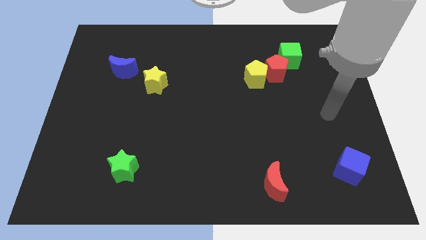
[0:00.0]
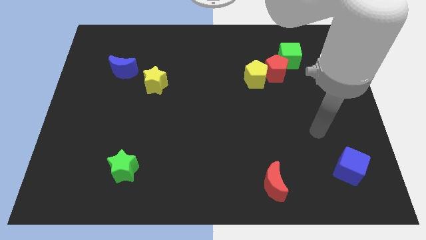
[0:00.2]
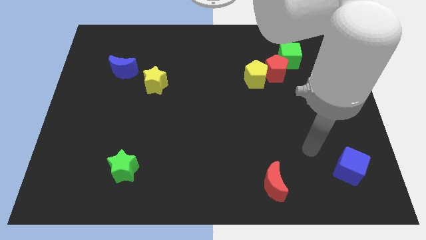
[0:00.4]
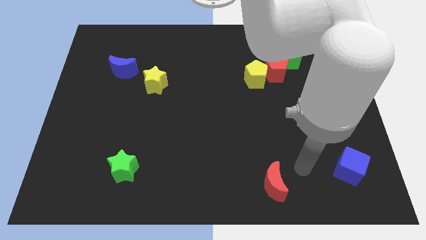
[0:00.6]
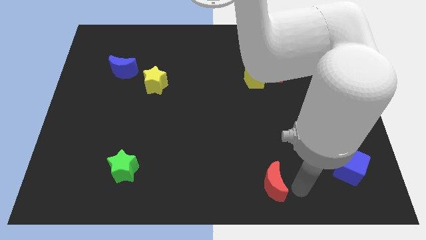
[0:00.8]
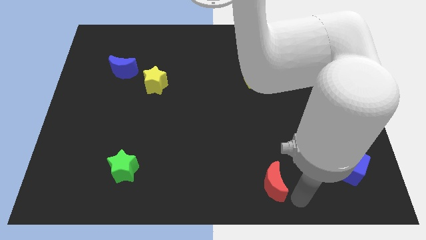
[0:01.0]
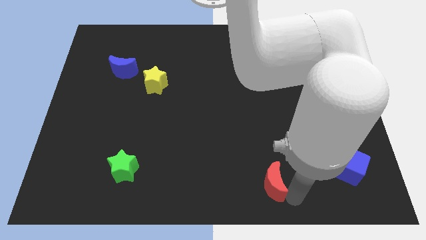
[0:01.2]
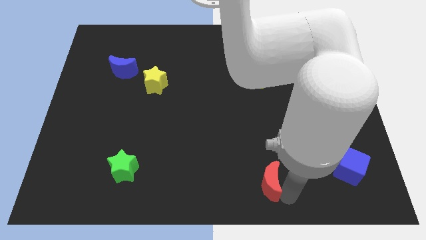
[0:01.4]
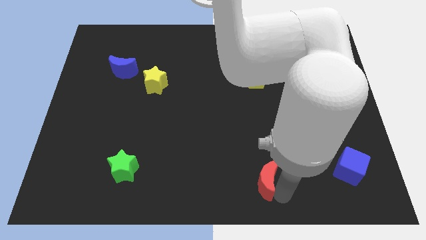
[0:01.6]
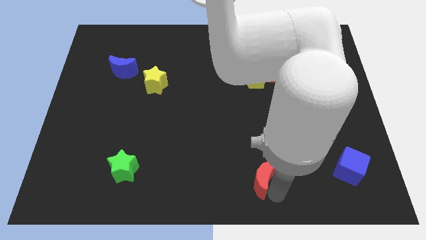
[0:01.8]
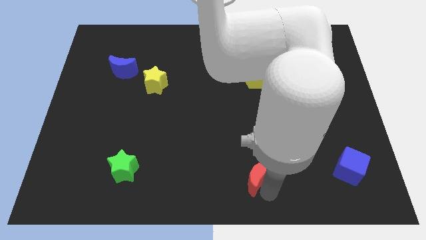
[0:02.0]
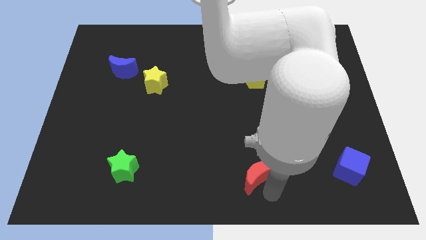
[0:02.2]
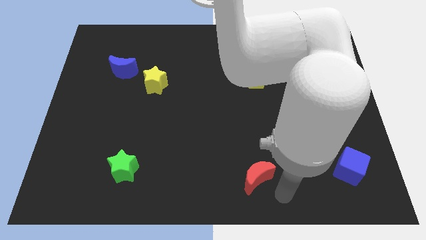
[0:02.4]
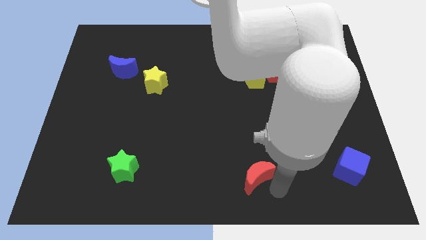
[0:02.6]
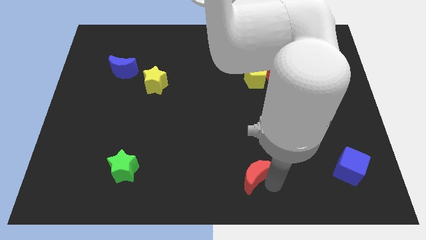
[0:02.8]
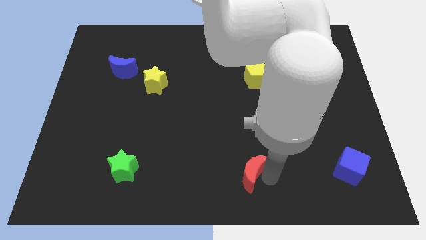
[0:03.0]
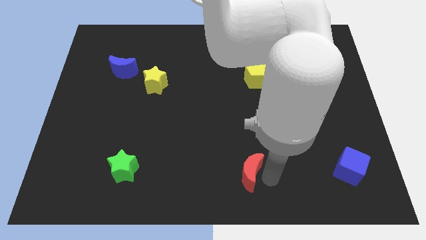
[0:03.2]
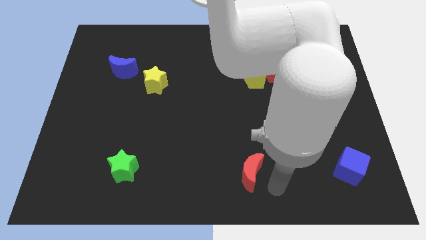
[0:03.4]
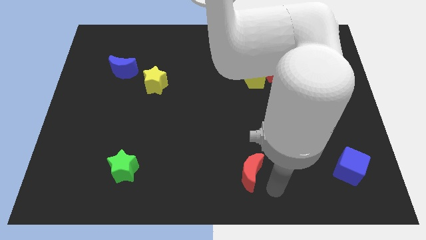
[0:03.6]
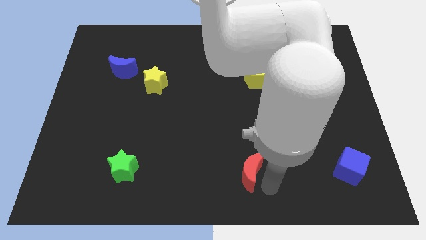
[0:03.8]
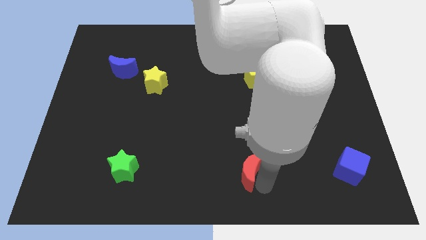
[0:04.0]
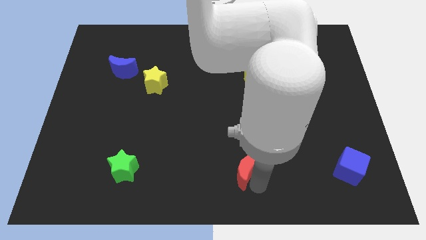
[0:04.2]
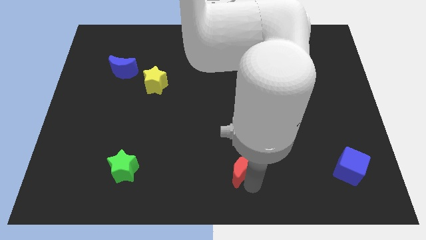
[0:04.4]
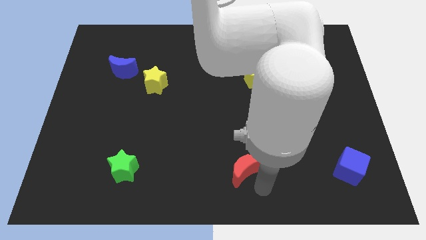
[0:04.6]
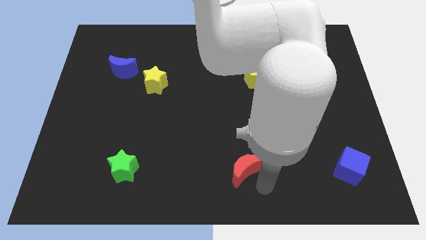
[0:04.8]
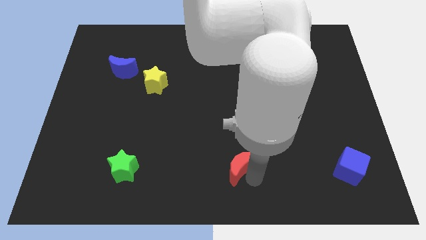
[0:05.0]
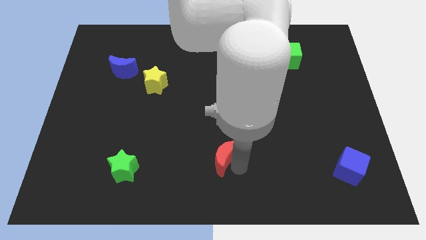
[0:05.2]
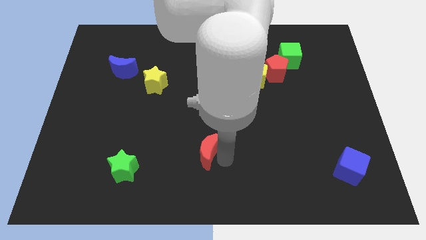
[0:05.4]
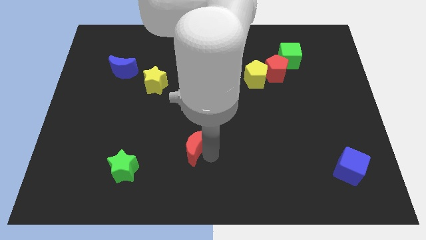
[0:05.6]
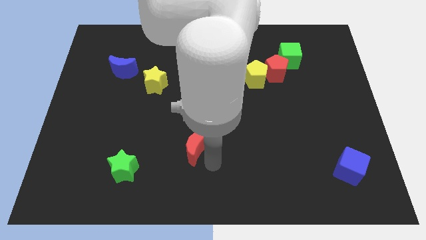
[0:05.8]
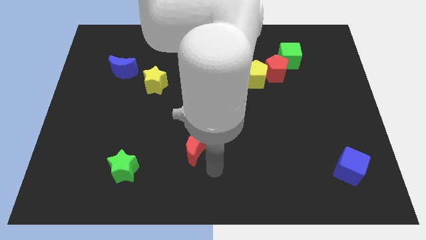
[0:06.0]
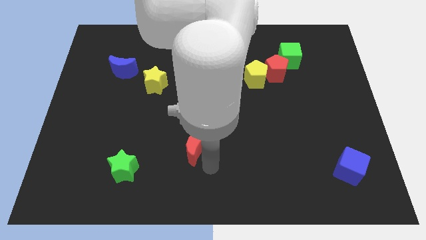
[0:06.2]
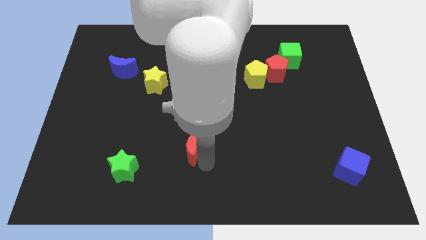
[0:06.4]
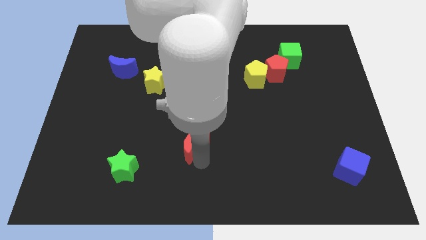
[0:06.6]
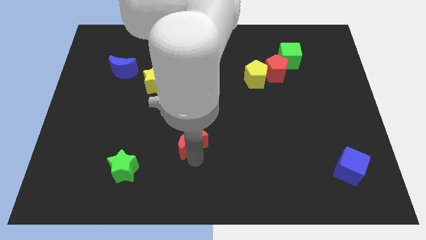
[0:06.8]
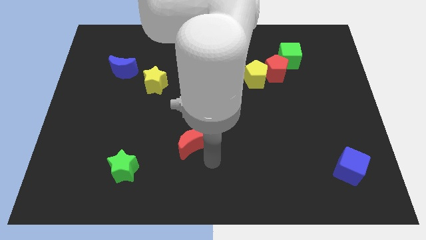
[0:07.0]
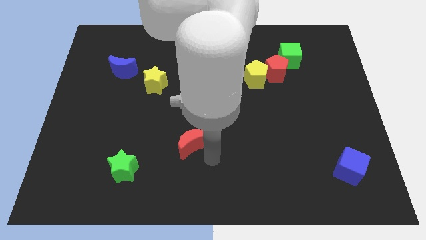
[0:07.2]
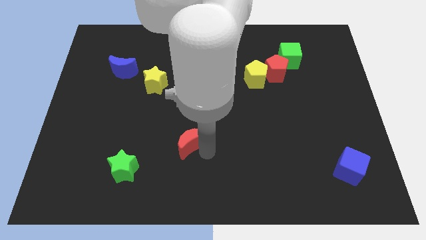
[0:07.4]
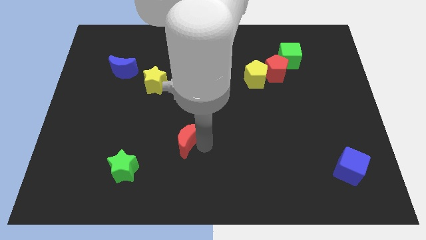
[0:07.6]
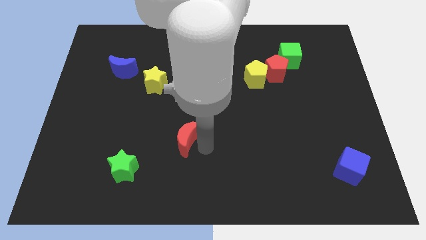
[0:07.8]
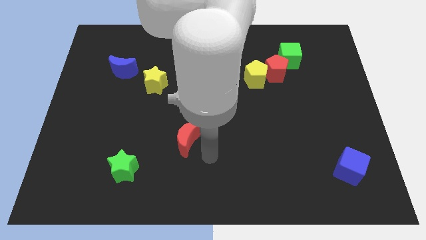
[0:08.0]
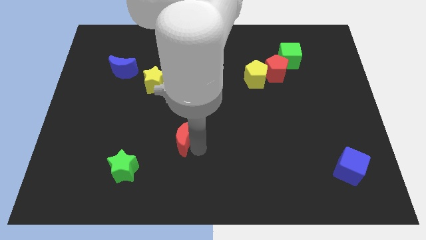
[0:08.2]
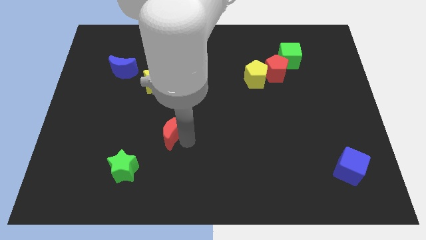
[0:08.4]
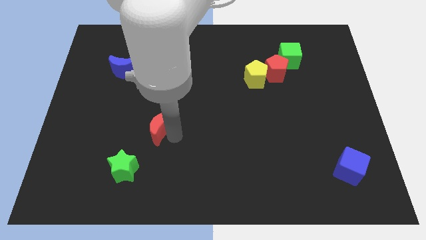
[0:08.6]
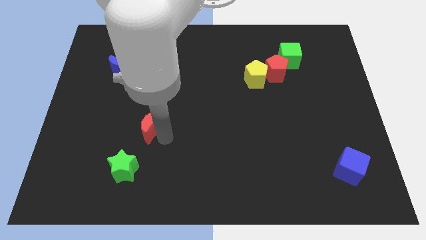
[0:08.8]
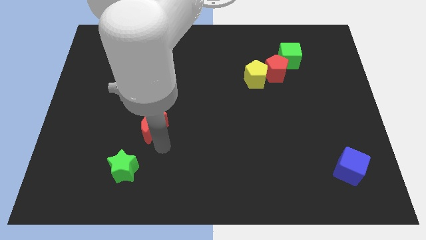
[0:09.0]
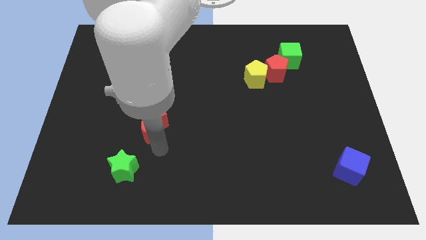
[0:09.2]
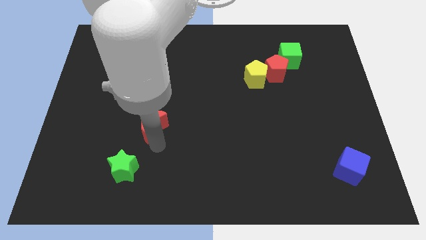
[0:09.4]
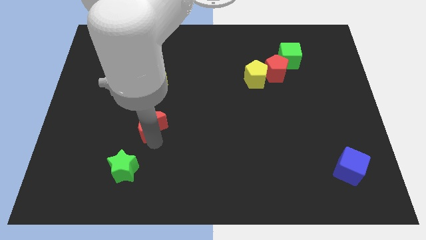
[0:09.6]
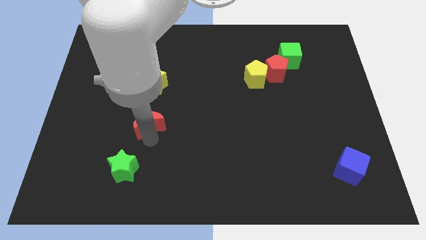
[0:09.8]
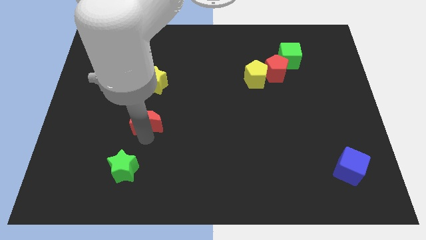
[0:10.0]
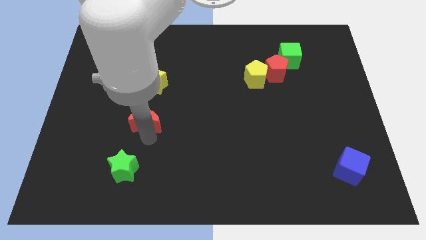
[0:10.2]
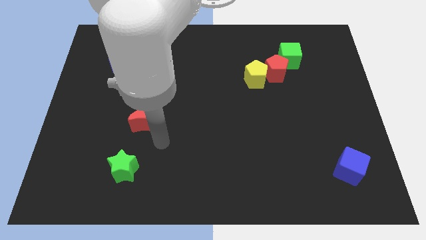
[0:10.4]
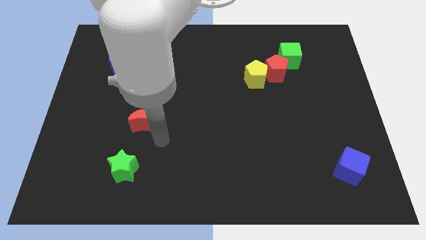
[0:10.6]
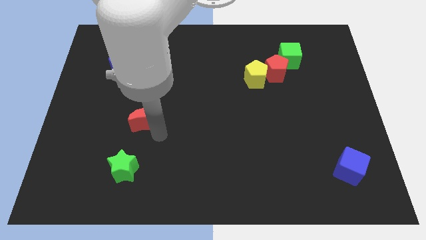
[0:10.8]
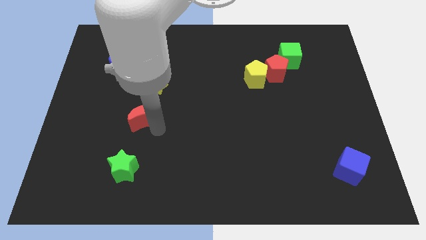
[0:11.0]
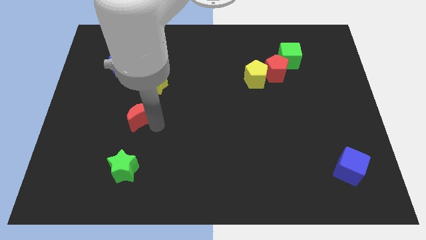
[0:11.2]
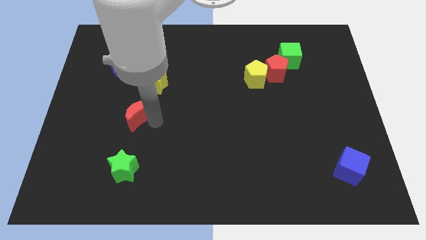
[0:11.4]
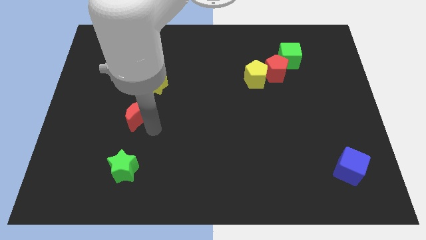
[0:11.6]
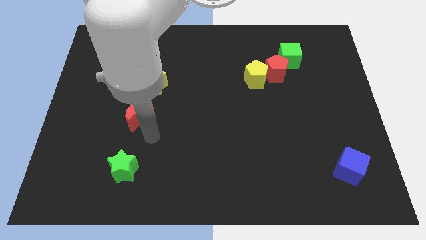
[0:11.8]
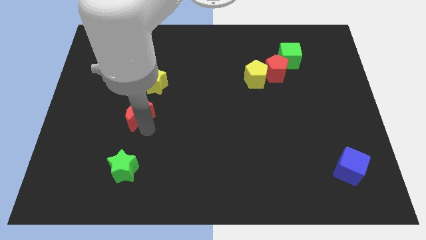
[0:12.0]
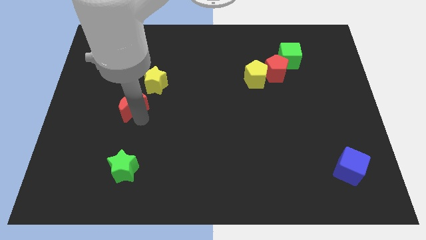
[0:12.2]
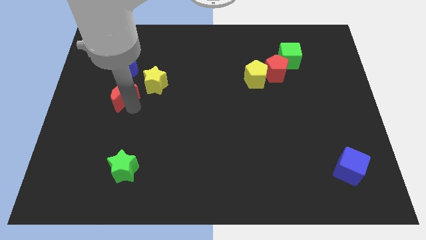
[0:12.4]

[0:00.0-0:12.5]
put the red moon to the left of the yellow star

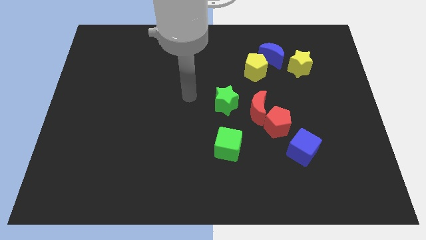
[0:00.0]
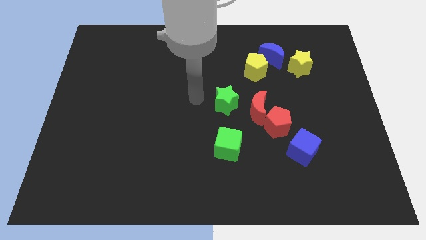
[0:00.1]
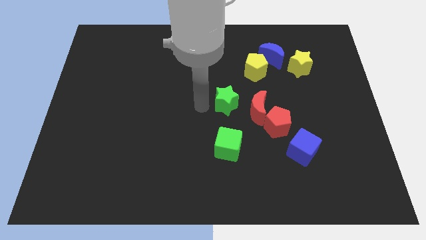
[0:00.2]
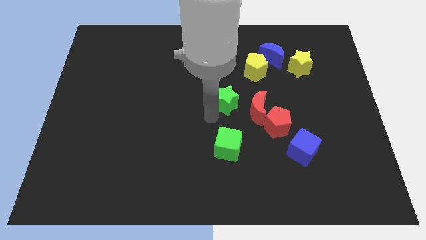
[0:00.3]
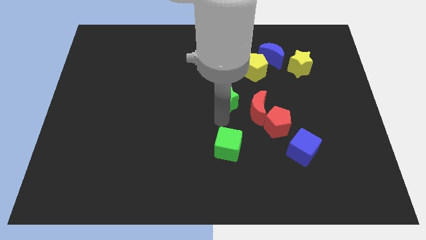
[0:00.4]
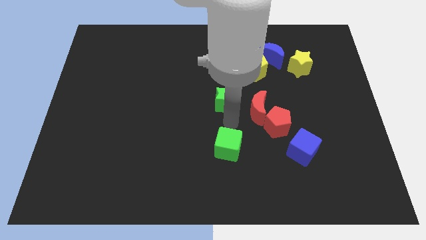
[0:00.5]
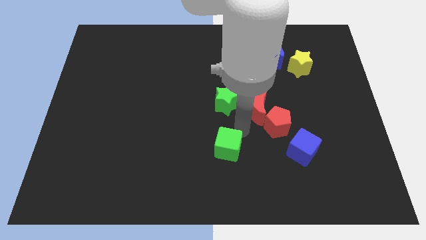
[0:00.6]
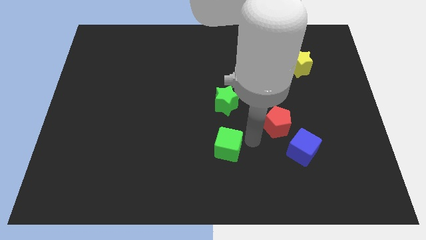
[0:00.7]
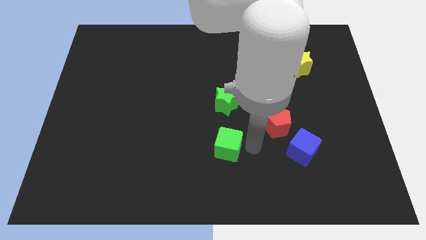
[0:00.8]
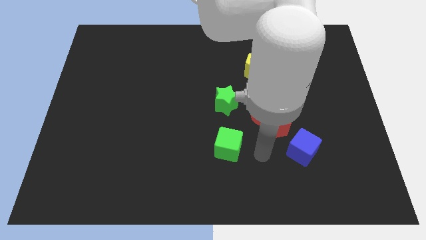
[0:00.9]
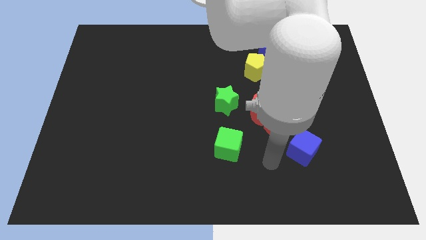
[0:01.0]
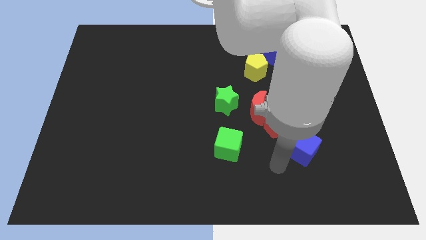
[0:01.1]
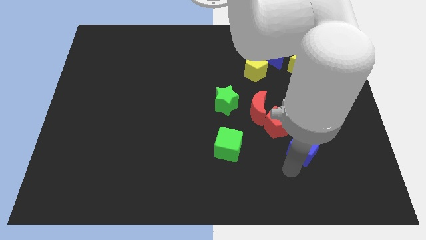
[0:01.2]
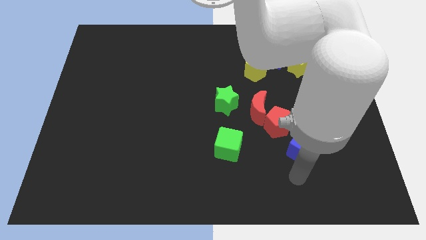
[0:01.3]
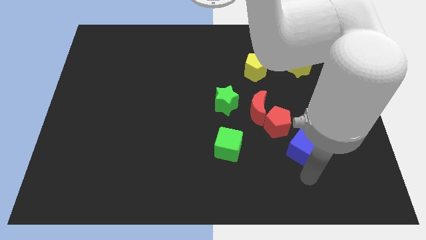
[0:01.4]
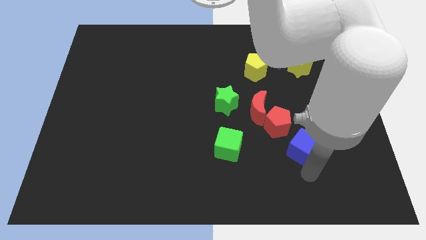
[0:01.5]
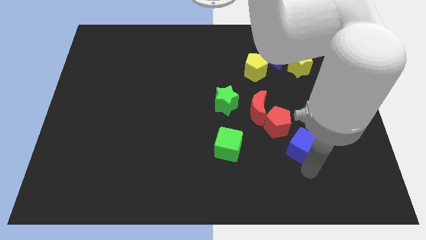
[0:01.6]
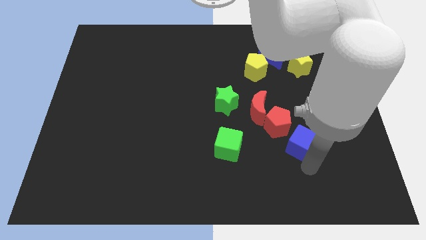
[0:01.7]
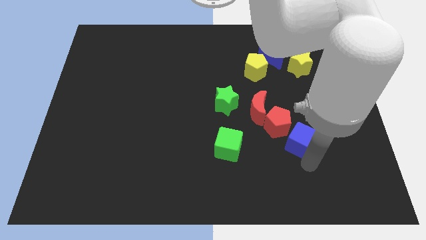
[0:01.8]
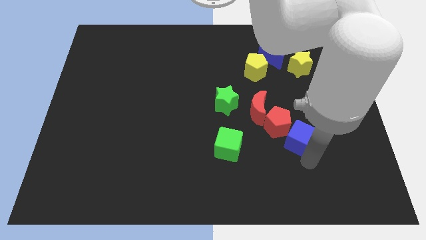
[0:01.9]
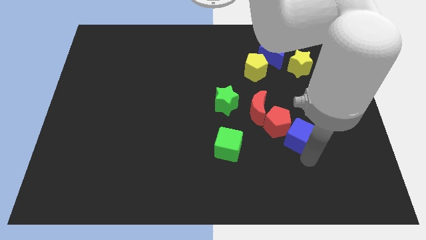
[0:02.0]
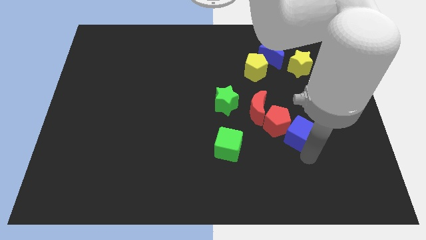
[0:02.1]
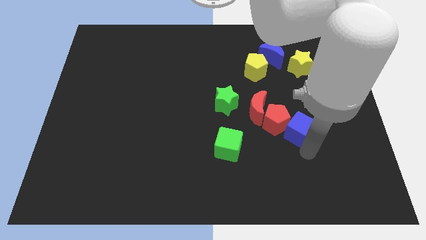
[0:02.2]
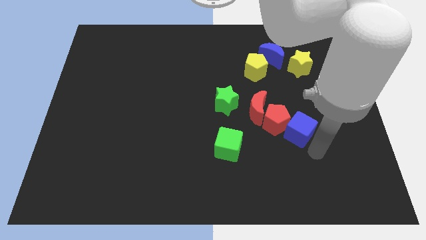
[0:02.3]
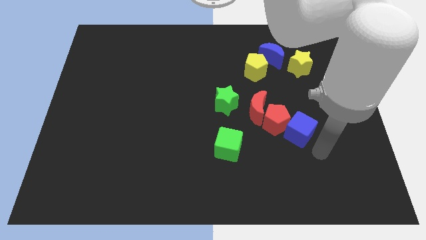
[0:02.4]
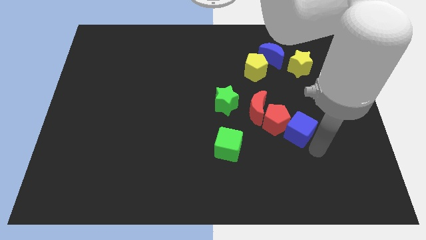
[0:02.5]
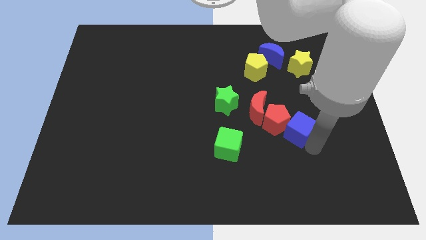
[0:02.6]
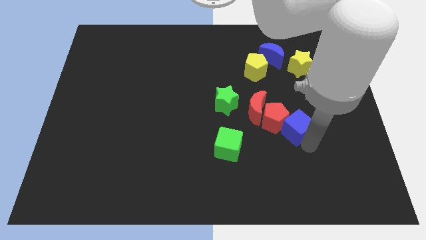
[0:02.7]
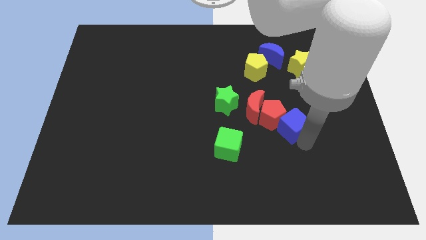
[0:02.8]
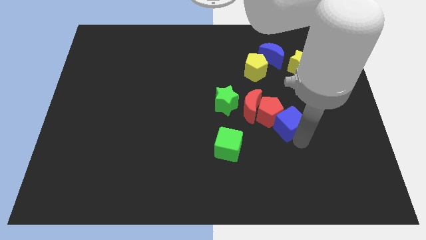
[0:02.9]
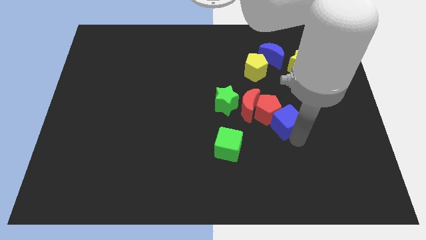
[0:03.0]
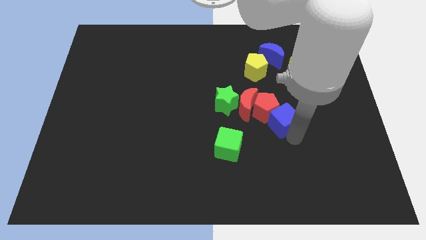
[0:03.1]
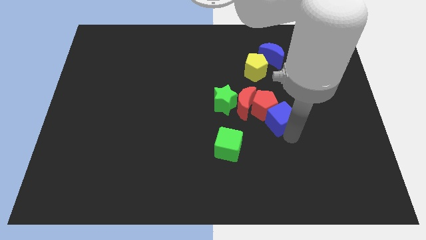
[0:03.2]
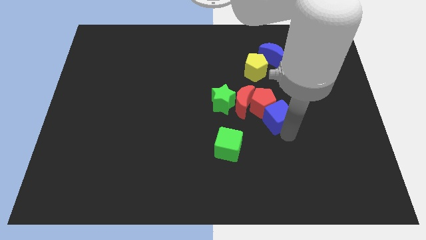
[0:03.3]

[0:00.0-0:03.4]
put the blue cube to the right side of the green star
